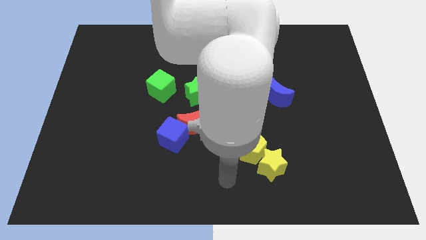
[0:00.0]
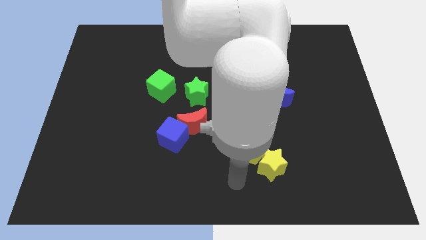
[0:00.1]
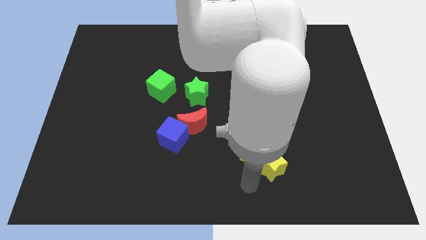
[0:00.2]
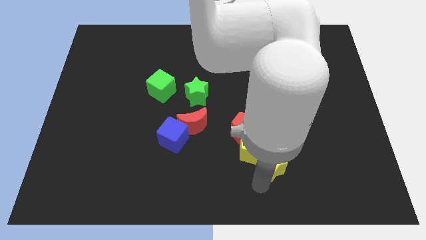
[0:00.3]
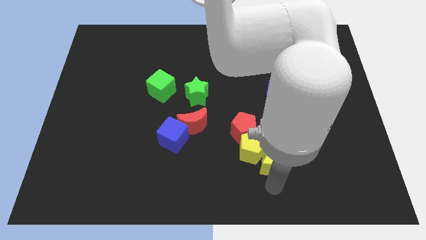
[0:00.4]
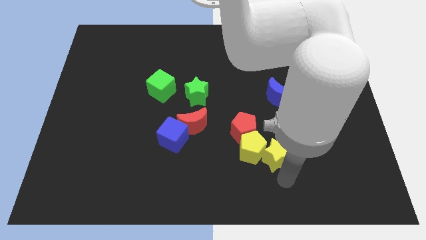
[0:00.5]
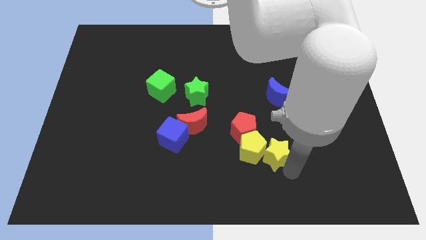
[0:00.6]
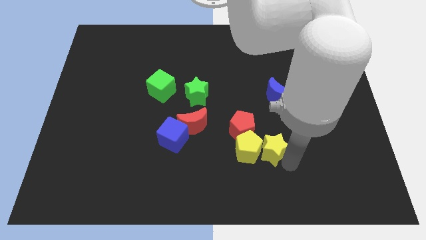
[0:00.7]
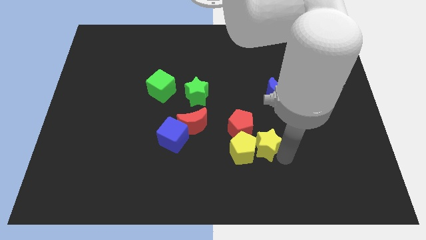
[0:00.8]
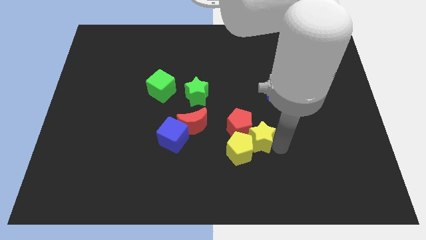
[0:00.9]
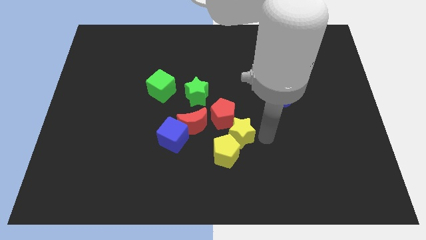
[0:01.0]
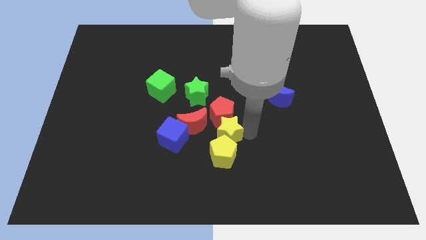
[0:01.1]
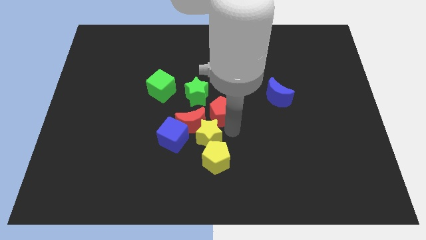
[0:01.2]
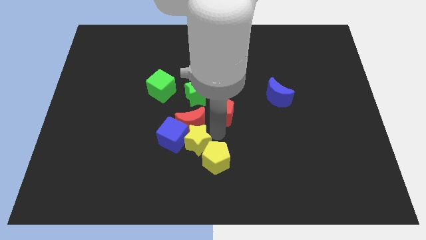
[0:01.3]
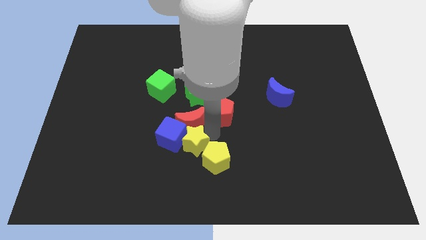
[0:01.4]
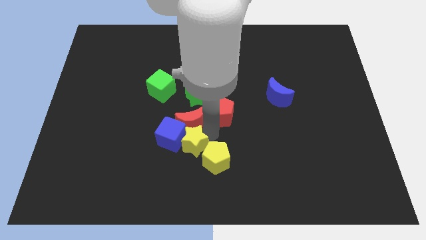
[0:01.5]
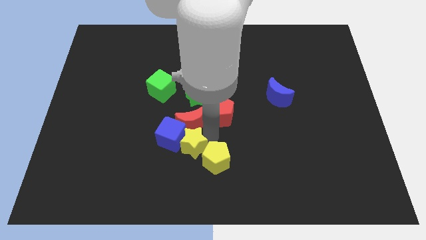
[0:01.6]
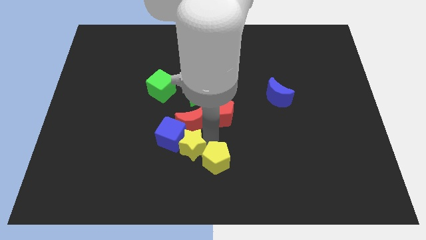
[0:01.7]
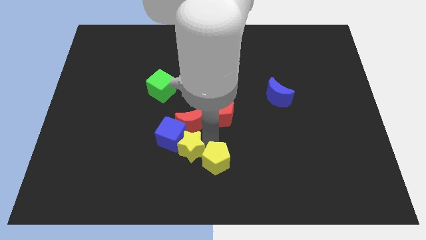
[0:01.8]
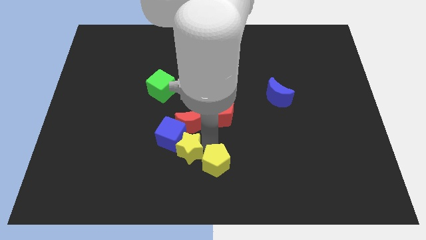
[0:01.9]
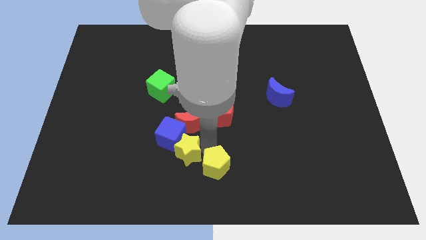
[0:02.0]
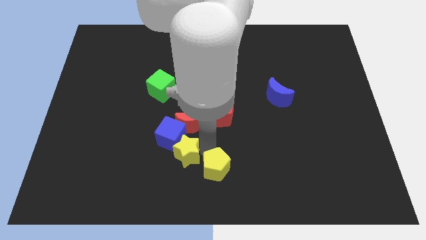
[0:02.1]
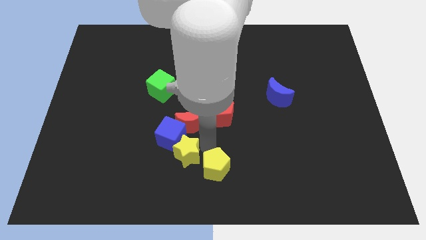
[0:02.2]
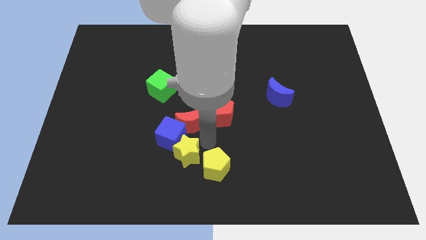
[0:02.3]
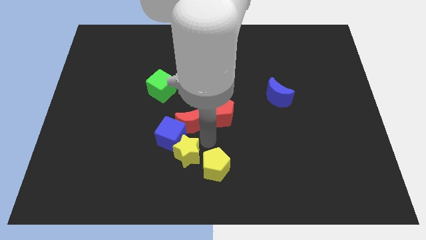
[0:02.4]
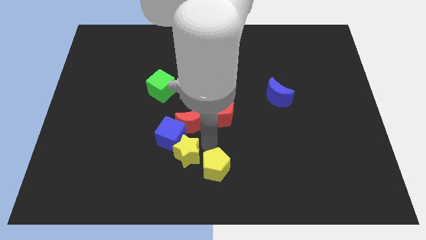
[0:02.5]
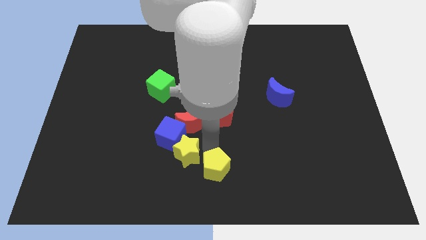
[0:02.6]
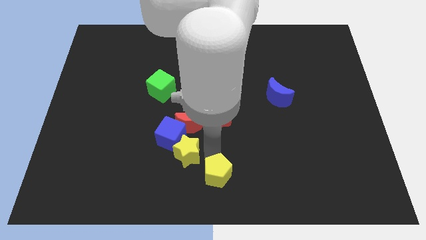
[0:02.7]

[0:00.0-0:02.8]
pull the yellow pentagon apart from the yellow star and red pentagon

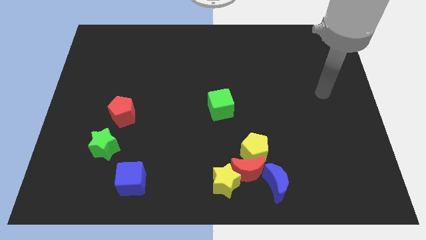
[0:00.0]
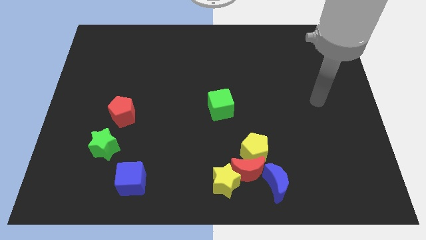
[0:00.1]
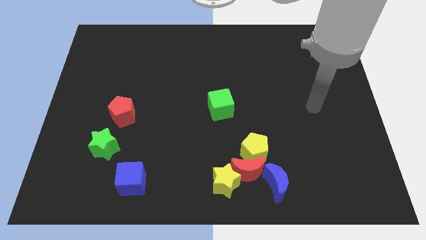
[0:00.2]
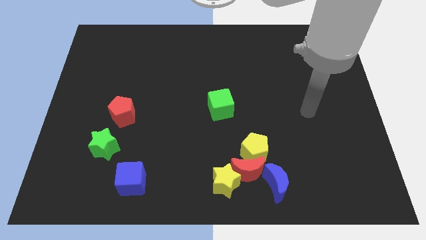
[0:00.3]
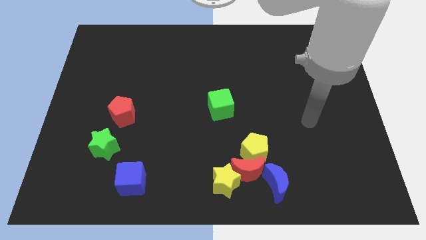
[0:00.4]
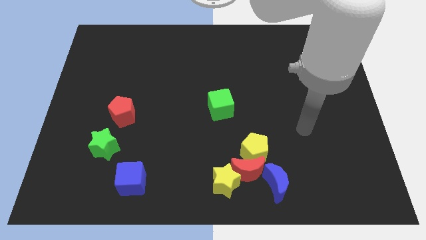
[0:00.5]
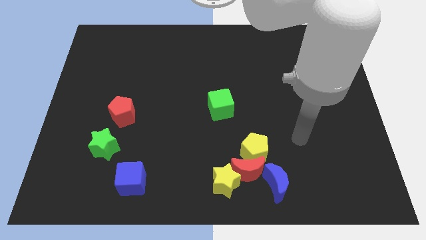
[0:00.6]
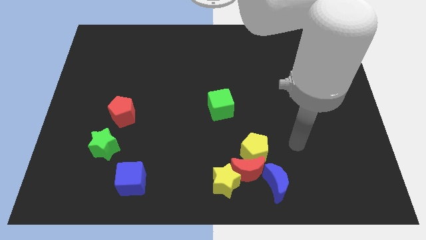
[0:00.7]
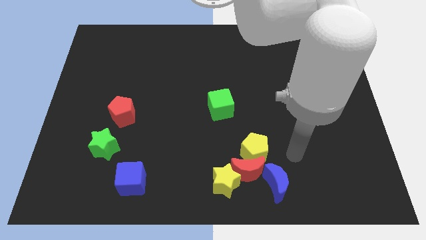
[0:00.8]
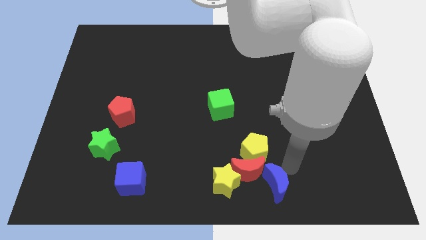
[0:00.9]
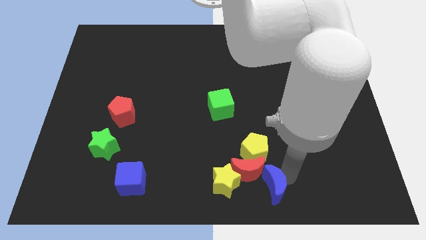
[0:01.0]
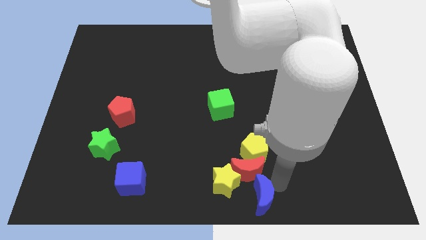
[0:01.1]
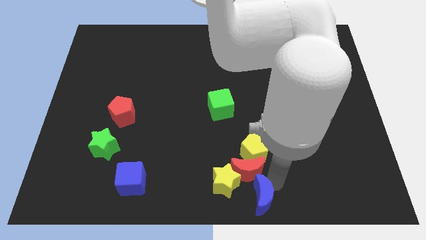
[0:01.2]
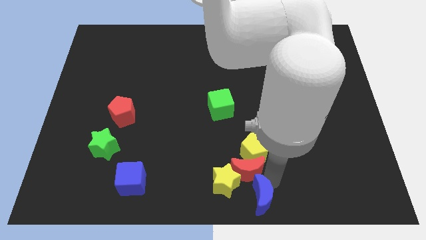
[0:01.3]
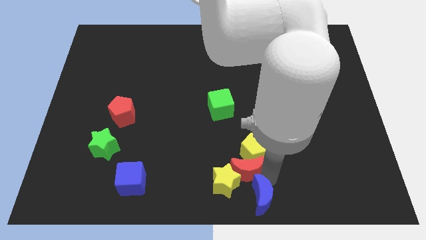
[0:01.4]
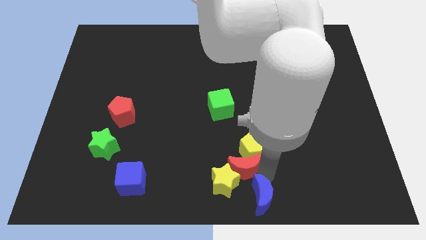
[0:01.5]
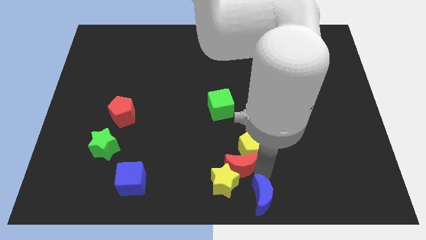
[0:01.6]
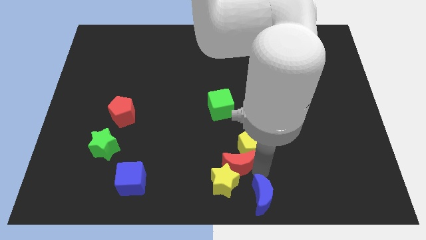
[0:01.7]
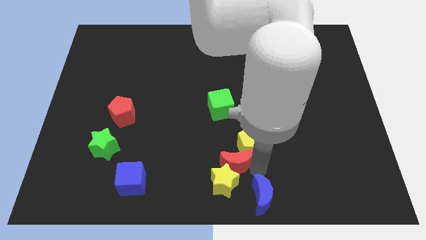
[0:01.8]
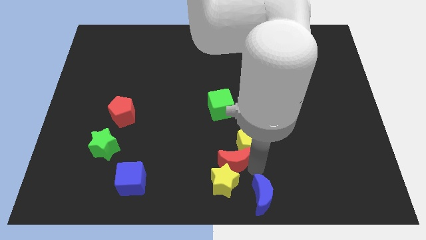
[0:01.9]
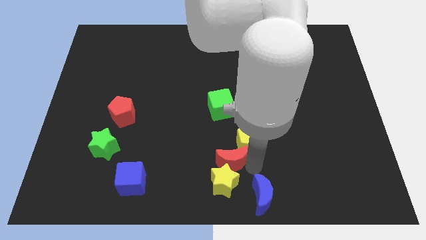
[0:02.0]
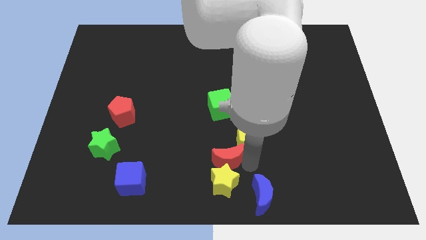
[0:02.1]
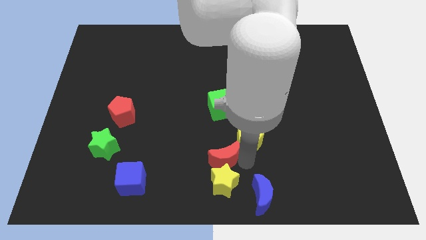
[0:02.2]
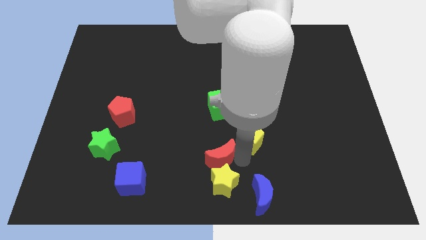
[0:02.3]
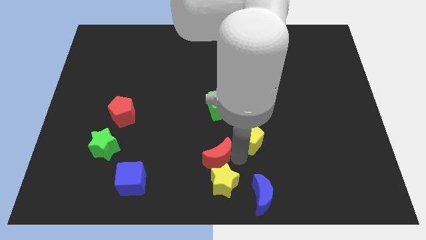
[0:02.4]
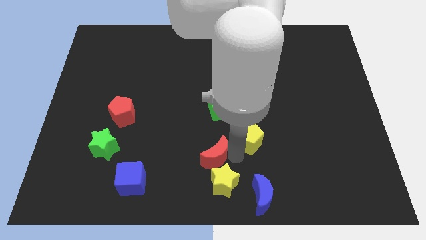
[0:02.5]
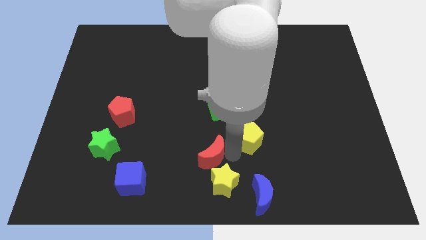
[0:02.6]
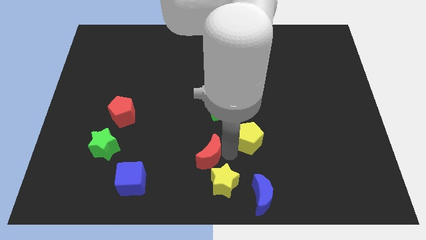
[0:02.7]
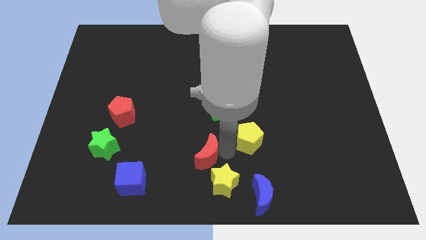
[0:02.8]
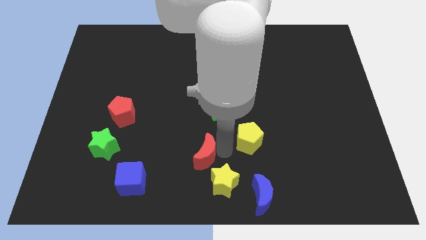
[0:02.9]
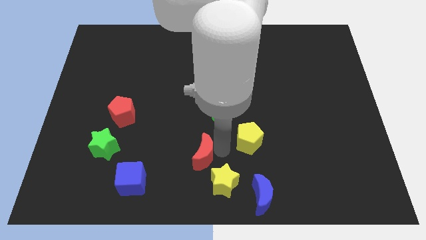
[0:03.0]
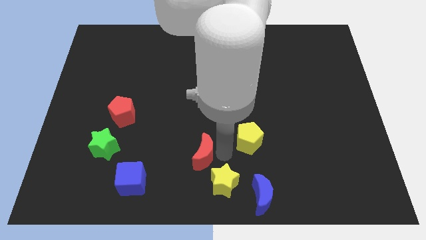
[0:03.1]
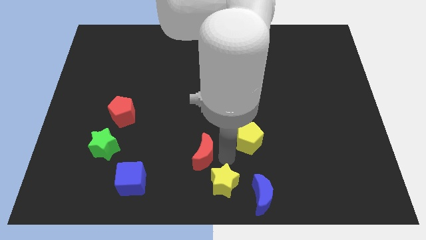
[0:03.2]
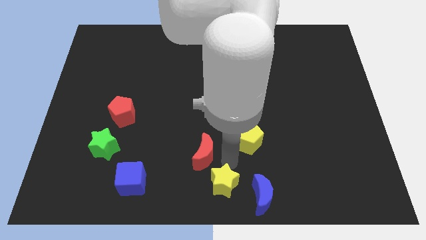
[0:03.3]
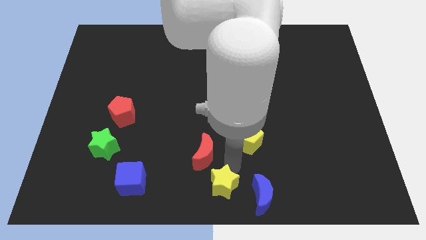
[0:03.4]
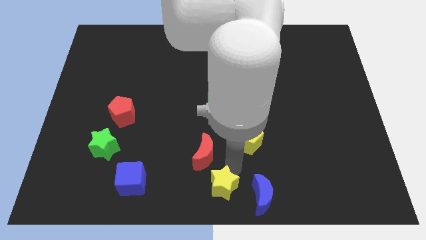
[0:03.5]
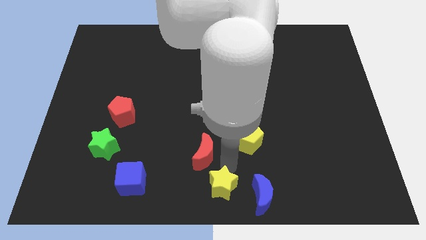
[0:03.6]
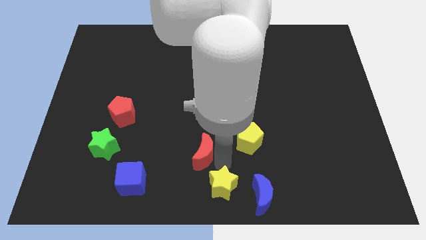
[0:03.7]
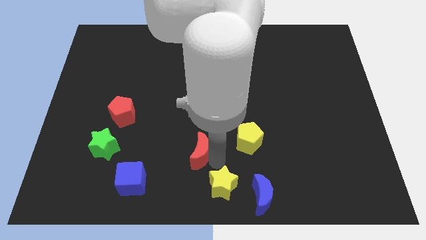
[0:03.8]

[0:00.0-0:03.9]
pull the red moon apart from the yellow pentagon, yellow star, and blue moon

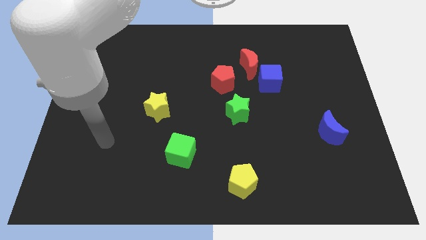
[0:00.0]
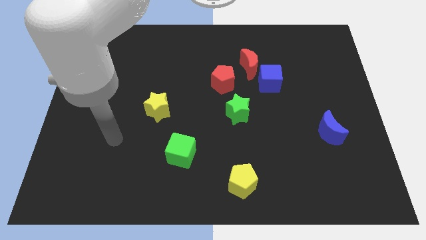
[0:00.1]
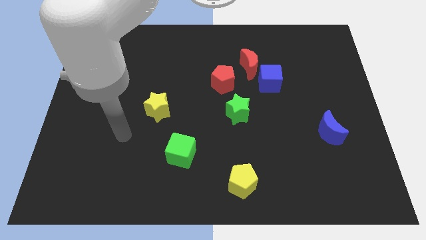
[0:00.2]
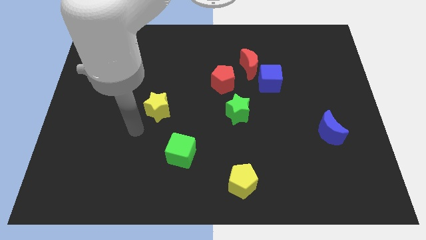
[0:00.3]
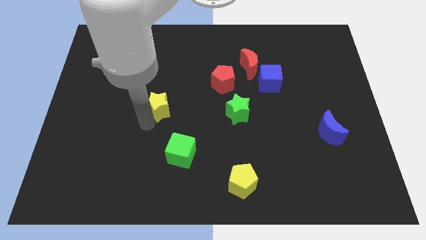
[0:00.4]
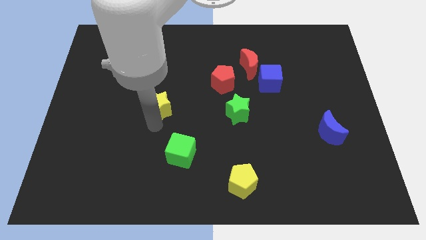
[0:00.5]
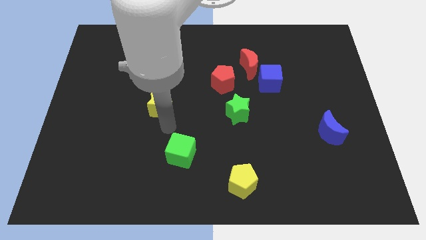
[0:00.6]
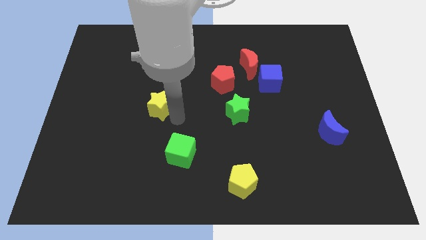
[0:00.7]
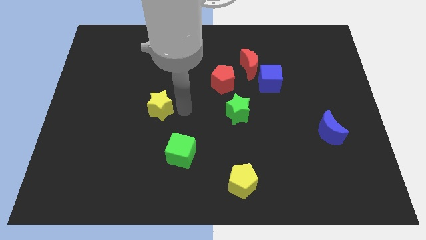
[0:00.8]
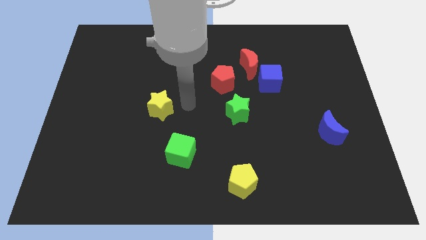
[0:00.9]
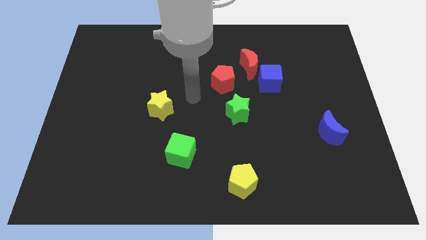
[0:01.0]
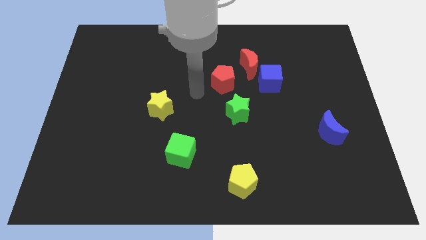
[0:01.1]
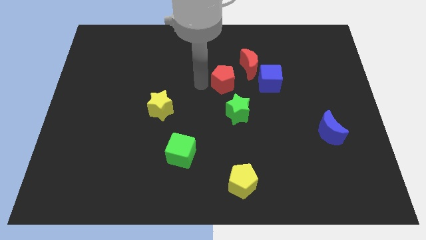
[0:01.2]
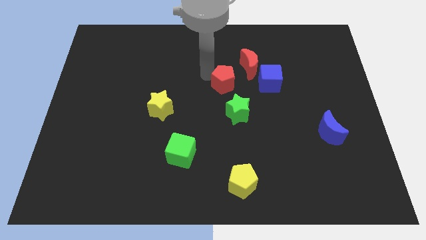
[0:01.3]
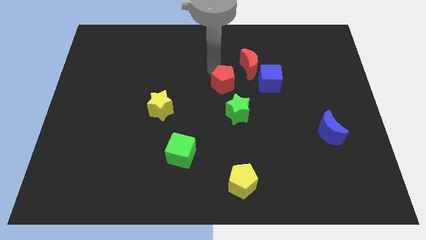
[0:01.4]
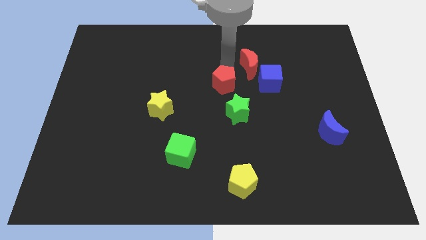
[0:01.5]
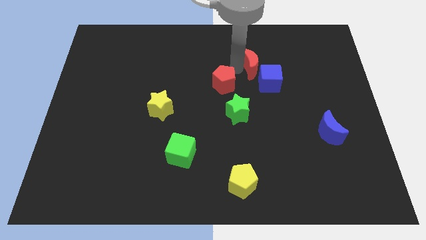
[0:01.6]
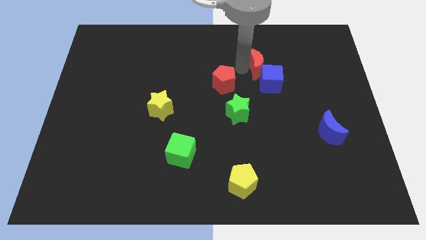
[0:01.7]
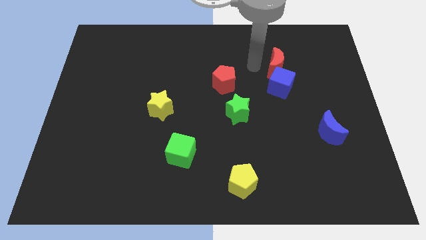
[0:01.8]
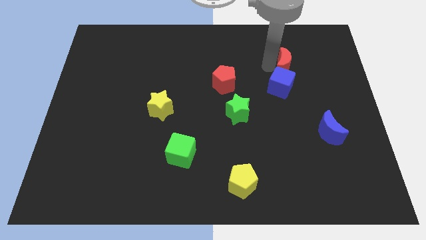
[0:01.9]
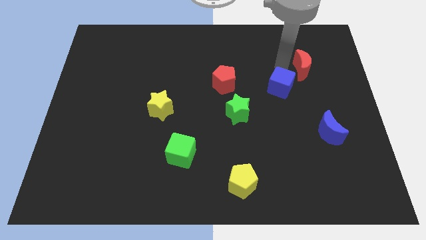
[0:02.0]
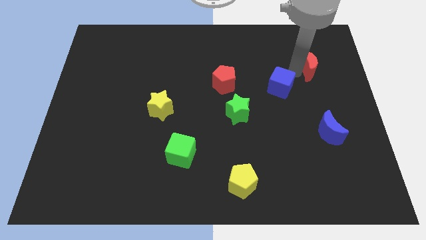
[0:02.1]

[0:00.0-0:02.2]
move the blue cube away from the red moon

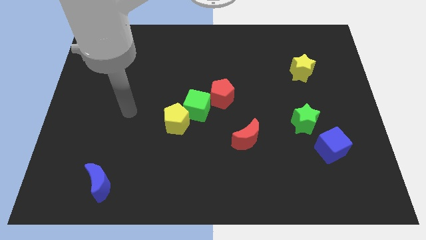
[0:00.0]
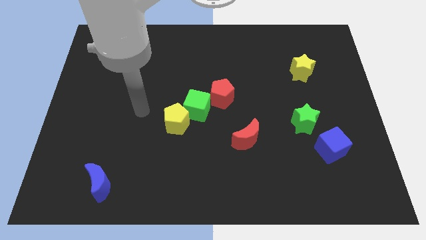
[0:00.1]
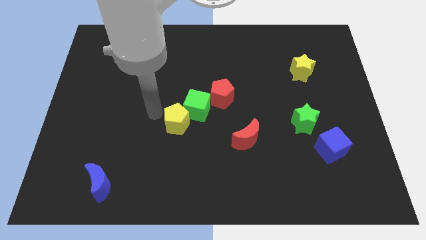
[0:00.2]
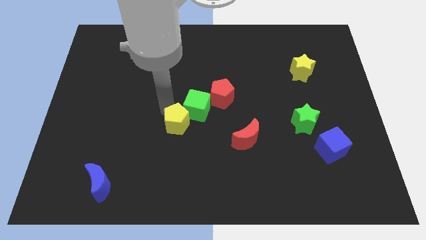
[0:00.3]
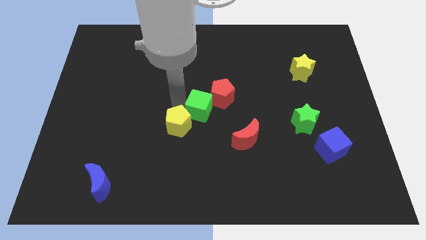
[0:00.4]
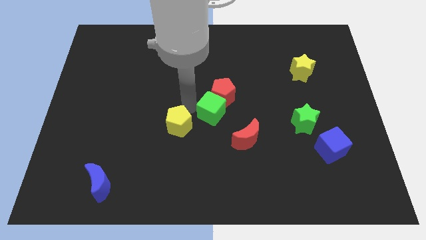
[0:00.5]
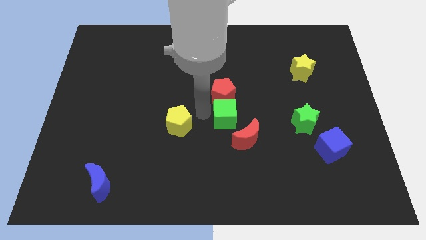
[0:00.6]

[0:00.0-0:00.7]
separate the yellow pentagon from the green cube
